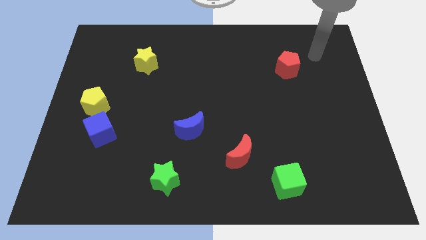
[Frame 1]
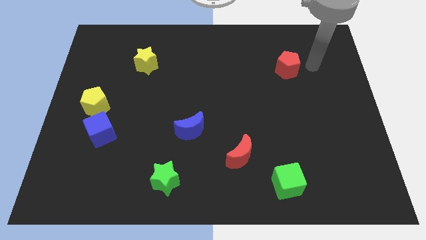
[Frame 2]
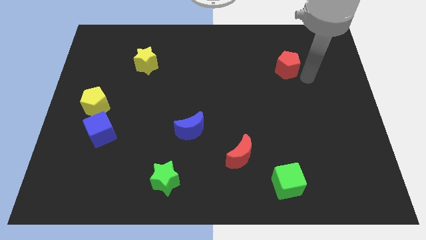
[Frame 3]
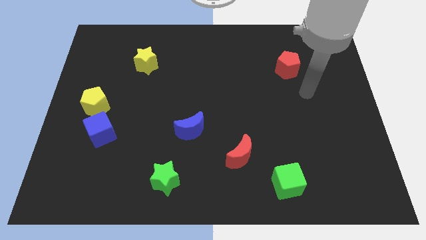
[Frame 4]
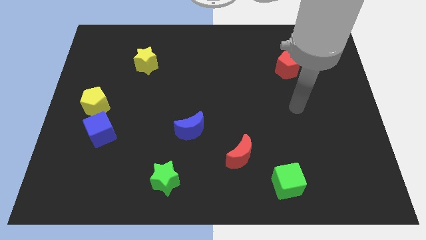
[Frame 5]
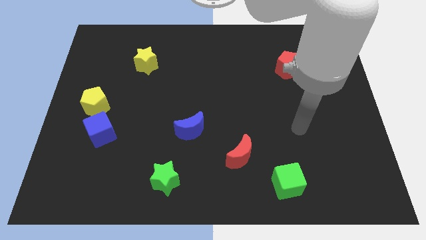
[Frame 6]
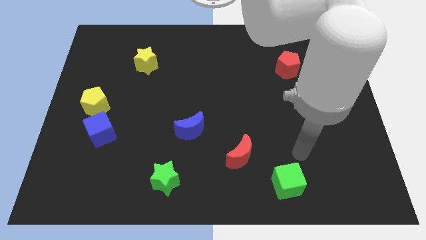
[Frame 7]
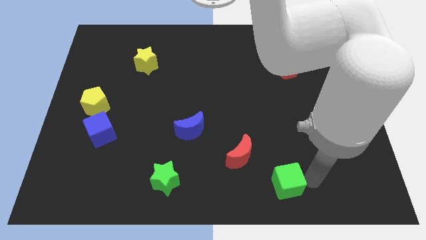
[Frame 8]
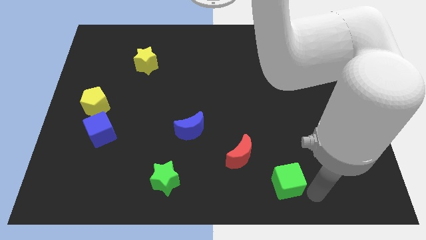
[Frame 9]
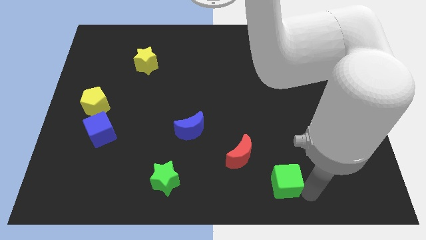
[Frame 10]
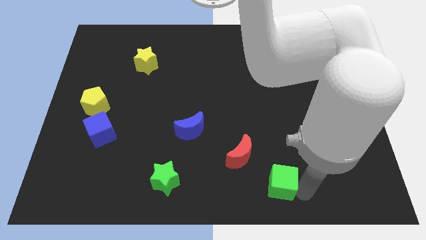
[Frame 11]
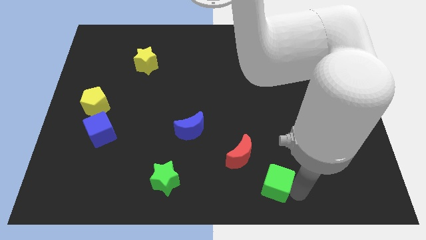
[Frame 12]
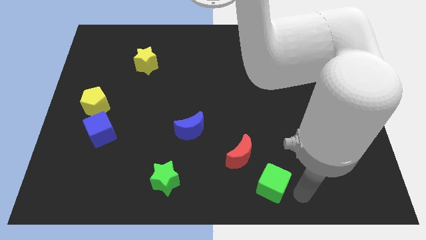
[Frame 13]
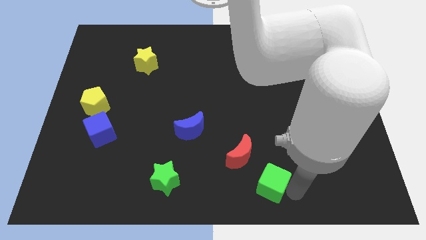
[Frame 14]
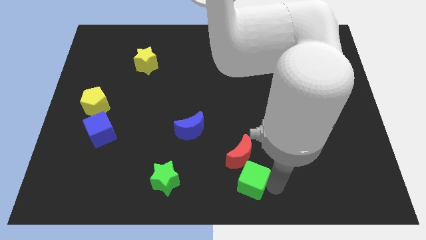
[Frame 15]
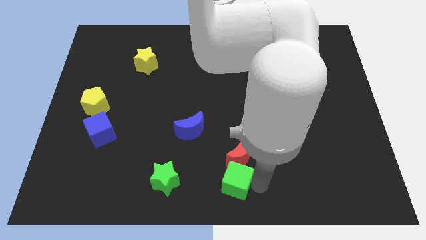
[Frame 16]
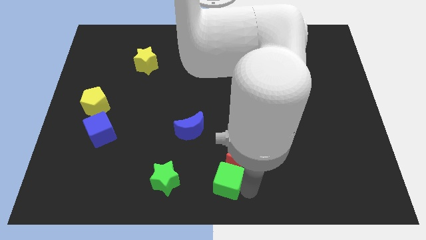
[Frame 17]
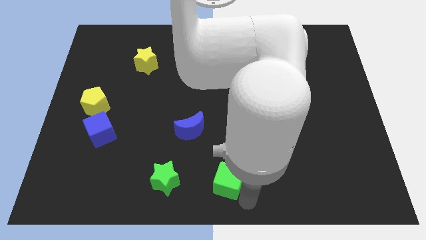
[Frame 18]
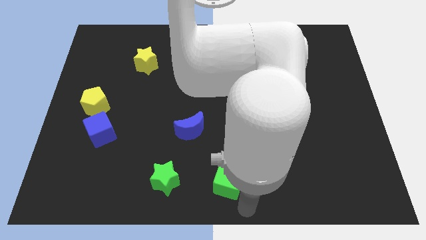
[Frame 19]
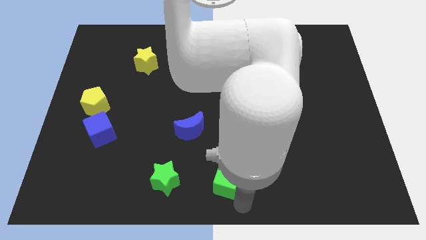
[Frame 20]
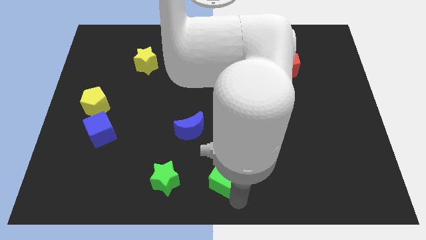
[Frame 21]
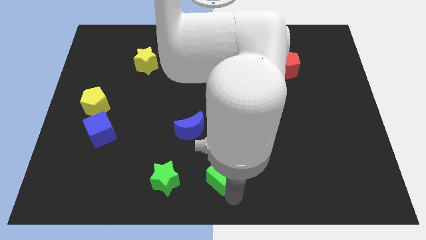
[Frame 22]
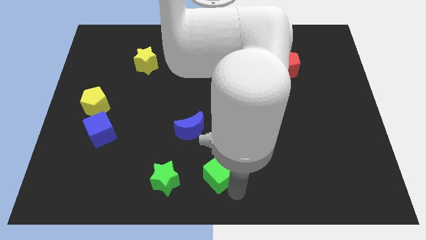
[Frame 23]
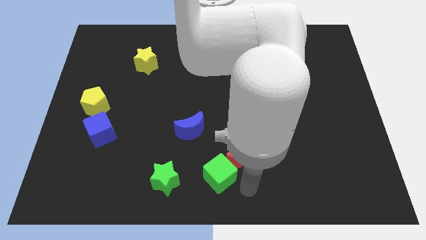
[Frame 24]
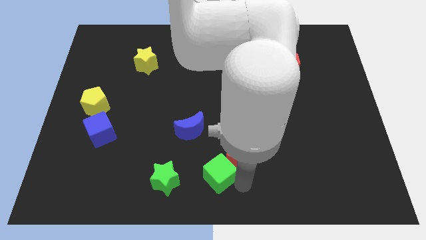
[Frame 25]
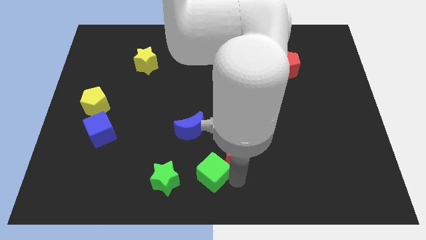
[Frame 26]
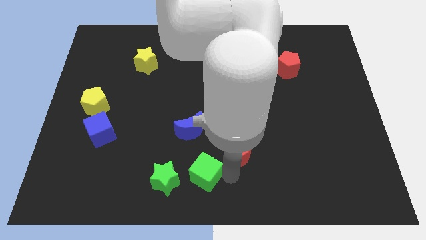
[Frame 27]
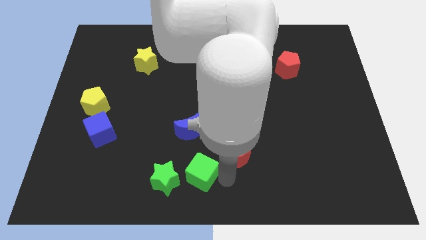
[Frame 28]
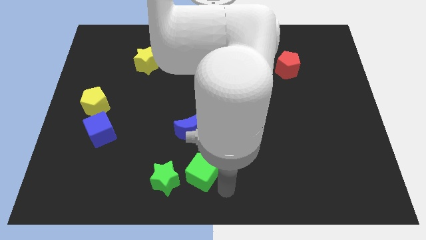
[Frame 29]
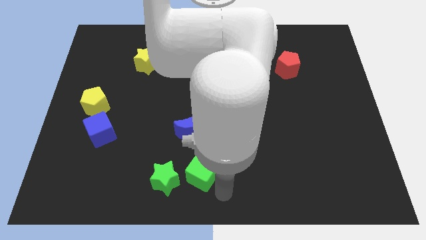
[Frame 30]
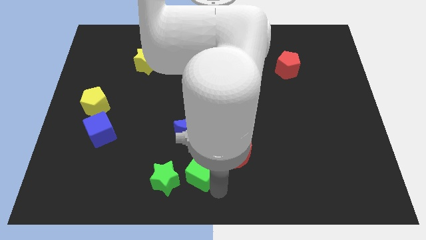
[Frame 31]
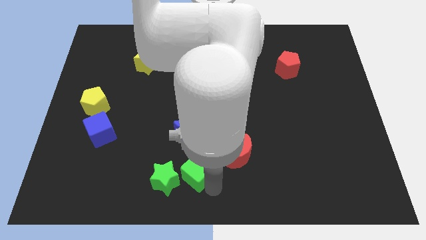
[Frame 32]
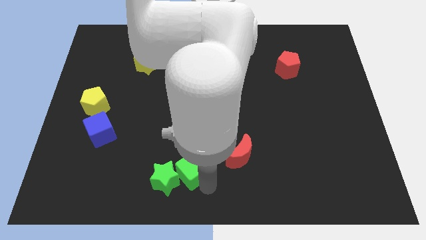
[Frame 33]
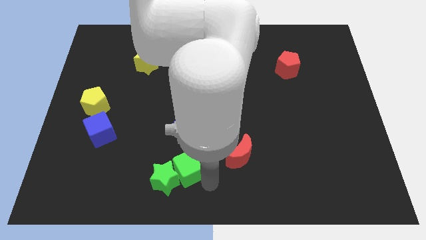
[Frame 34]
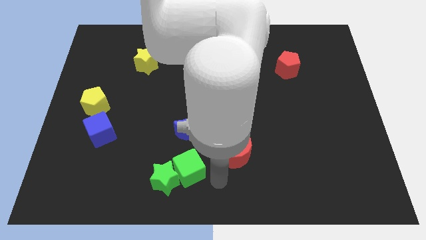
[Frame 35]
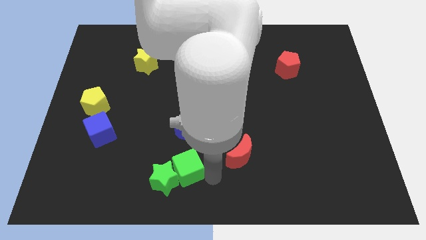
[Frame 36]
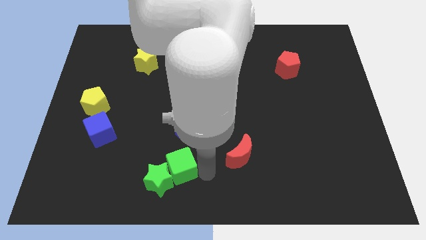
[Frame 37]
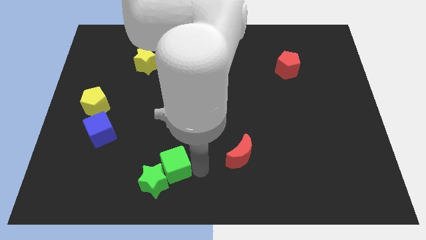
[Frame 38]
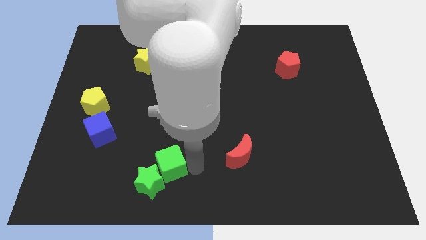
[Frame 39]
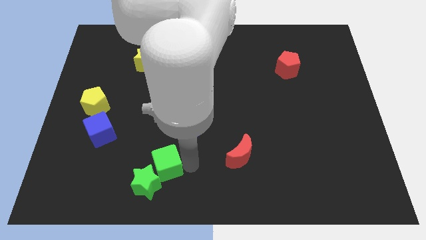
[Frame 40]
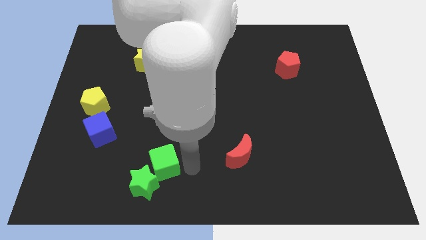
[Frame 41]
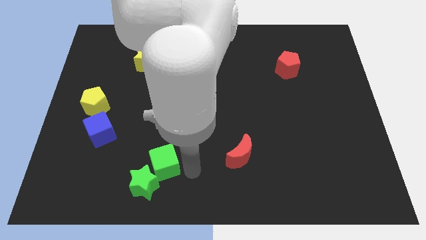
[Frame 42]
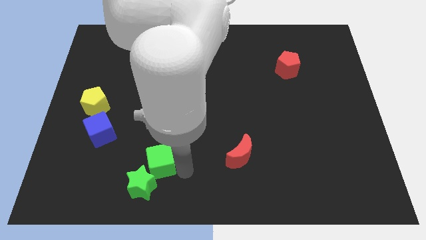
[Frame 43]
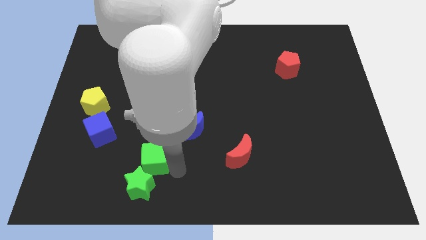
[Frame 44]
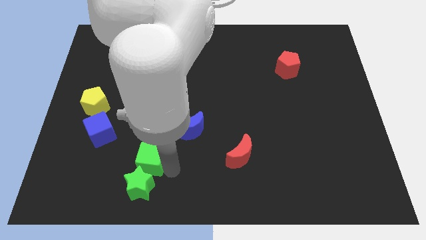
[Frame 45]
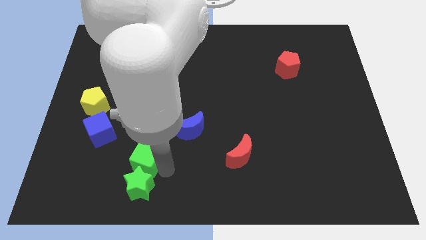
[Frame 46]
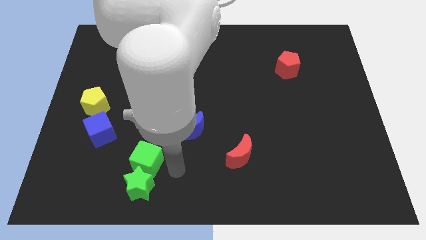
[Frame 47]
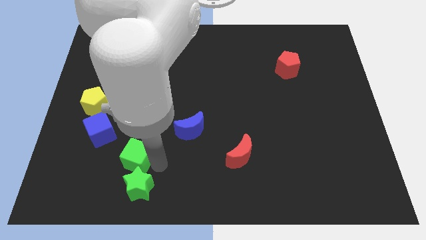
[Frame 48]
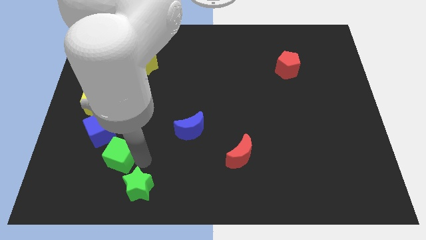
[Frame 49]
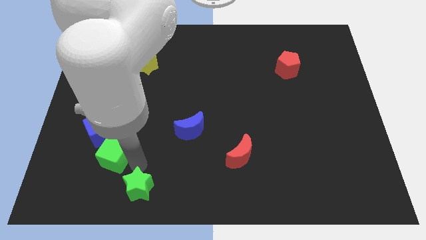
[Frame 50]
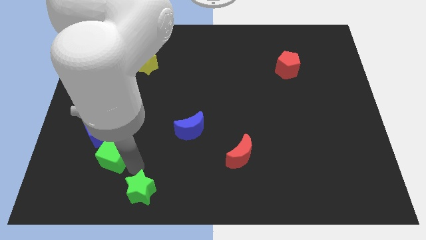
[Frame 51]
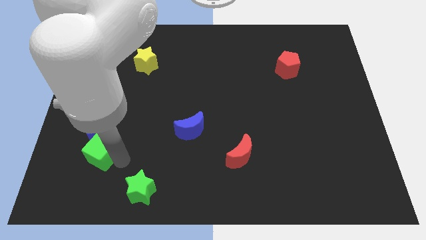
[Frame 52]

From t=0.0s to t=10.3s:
put the green cube to the bottom of the yellow pentagon

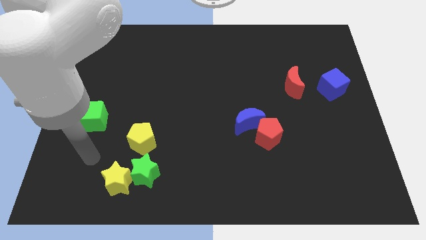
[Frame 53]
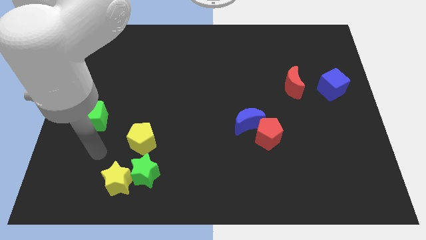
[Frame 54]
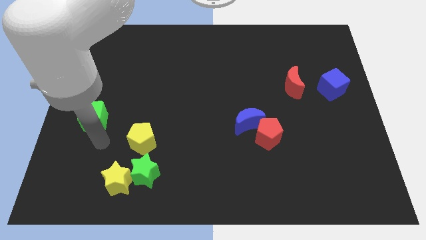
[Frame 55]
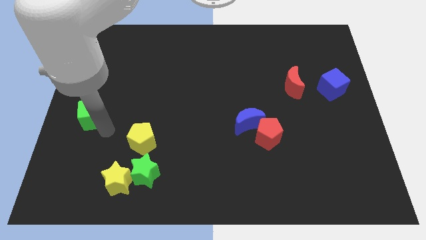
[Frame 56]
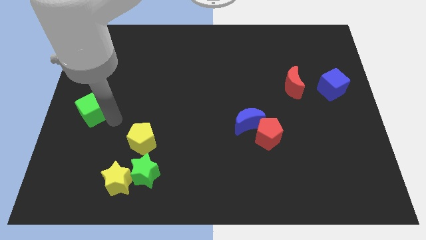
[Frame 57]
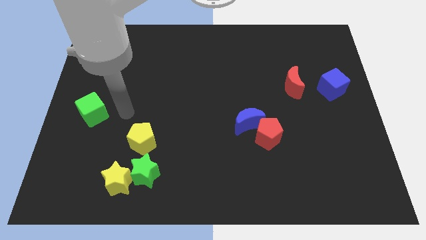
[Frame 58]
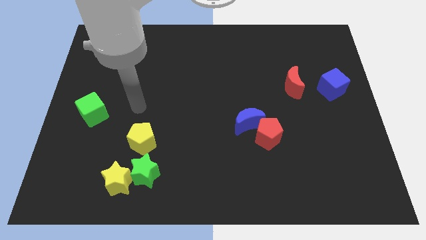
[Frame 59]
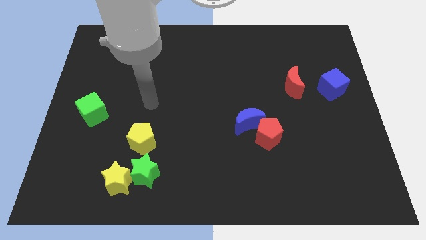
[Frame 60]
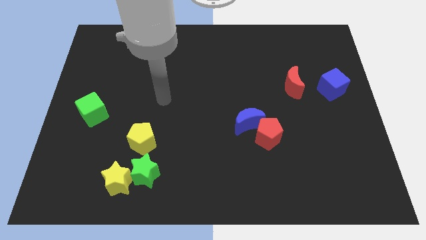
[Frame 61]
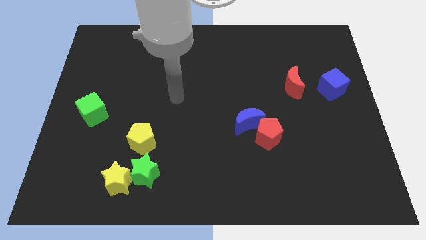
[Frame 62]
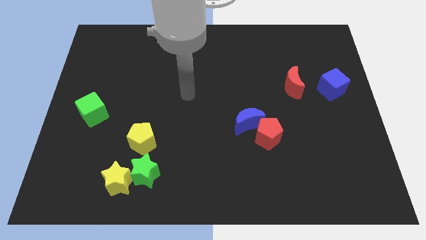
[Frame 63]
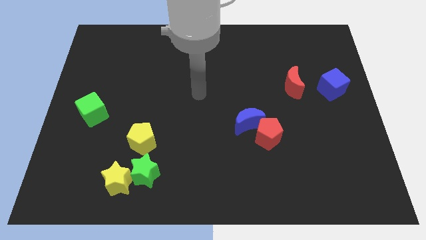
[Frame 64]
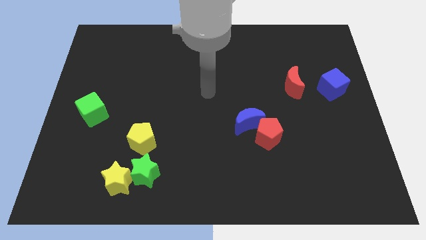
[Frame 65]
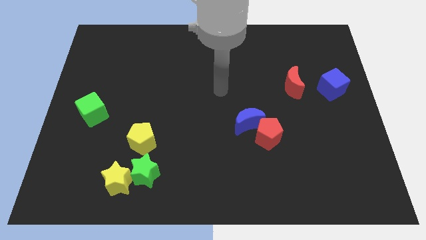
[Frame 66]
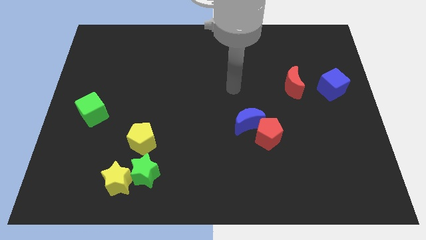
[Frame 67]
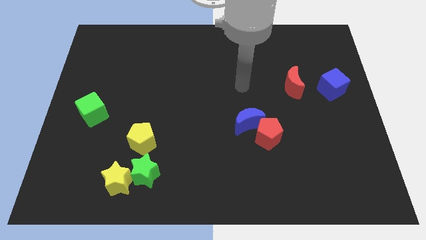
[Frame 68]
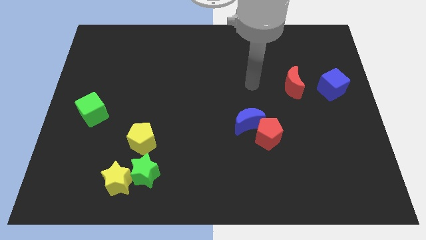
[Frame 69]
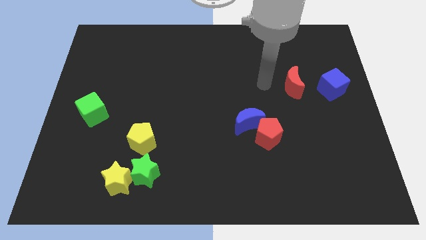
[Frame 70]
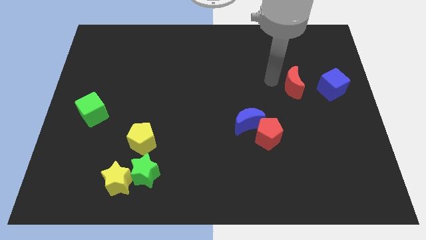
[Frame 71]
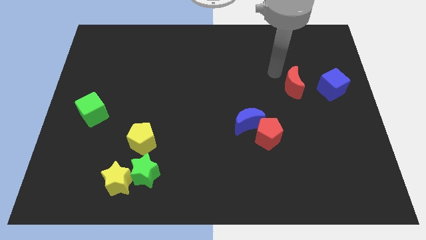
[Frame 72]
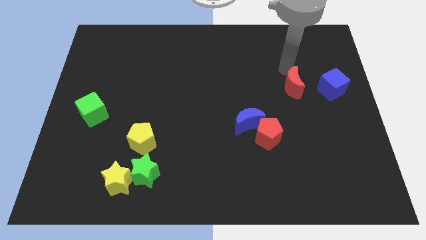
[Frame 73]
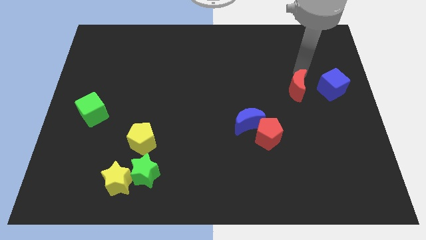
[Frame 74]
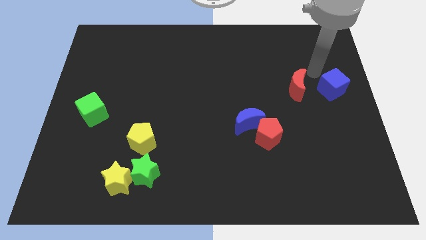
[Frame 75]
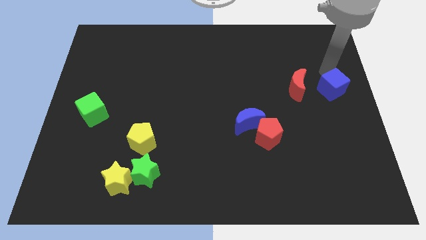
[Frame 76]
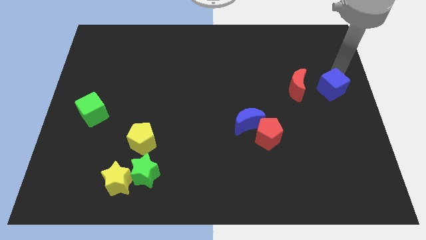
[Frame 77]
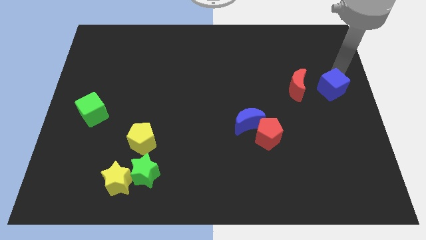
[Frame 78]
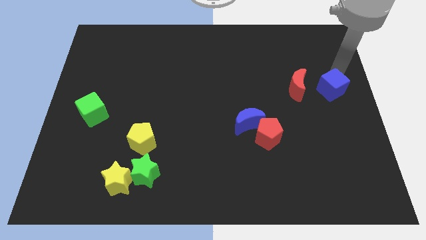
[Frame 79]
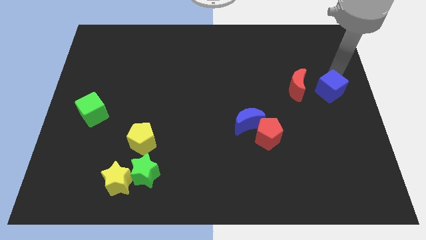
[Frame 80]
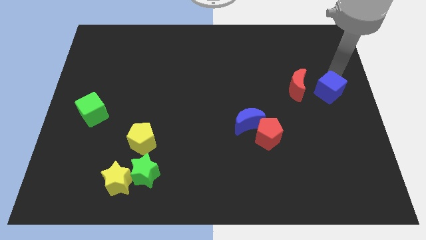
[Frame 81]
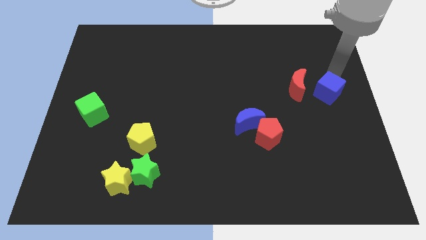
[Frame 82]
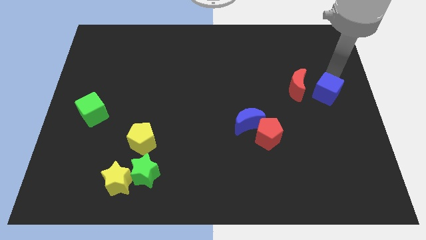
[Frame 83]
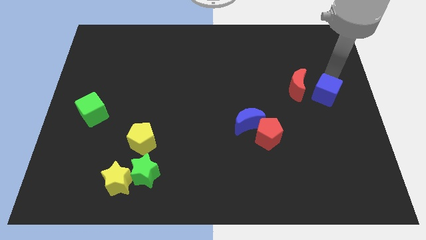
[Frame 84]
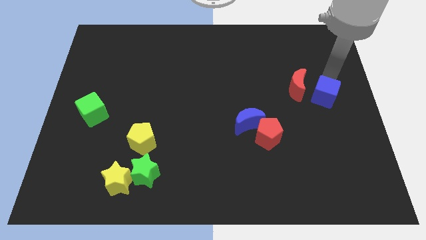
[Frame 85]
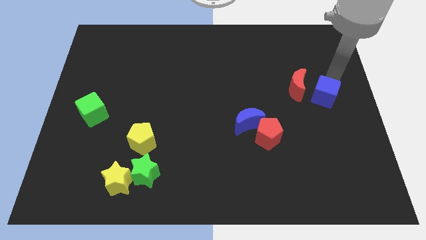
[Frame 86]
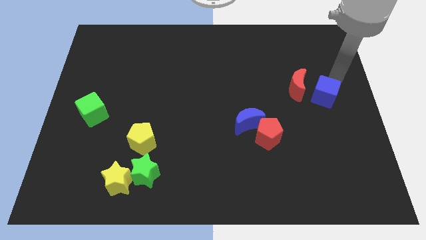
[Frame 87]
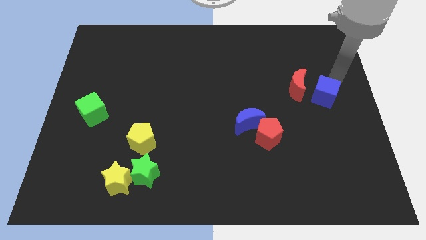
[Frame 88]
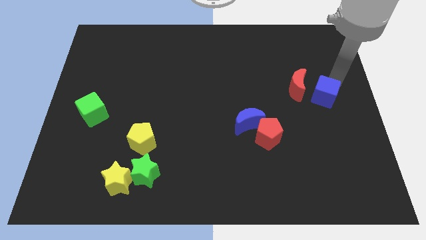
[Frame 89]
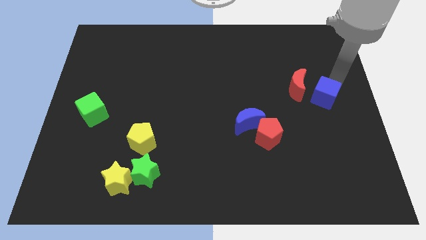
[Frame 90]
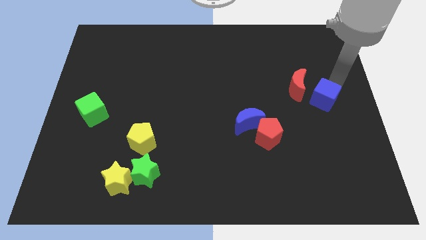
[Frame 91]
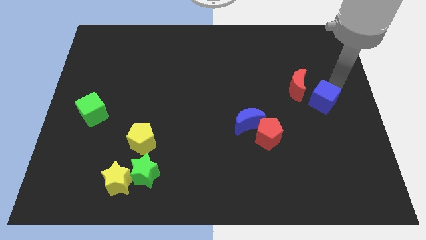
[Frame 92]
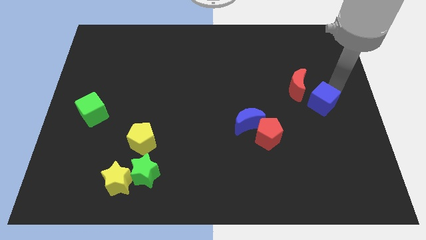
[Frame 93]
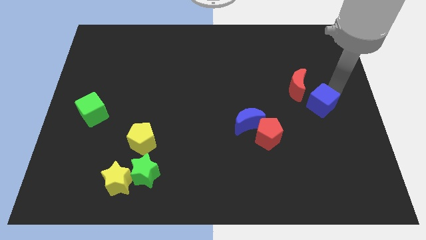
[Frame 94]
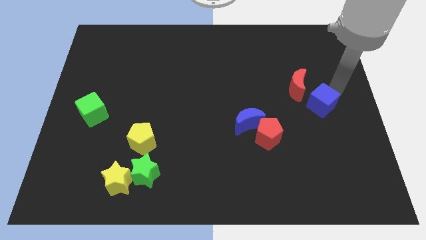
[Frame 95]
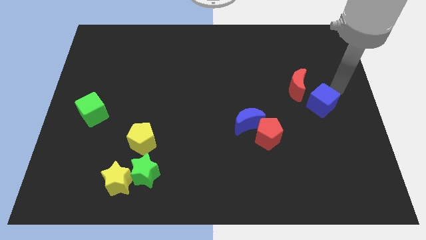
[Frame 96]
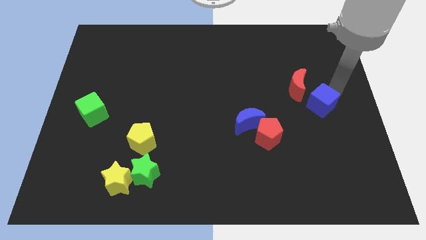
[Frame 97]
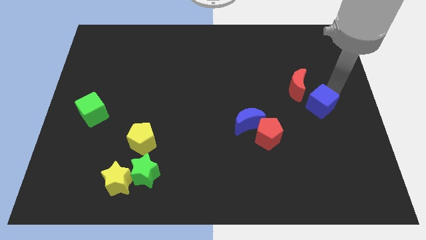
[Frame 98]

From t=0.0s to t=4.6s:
push the blue cube to the bottom of the red moon
